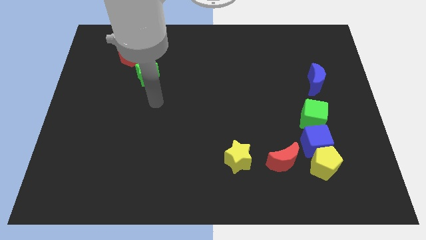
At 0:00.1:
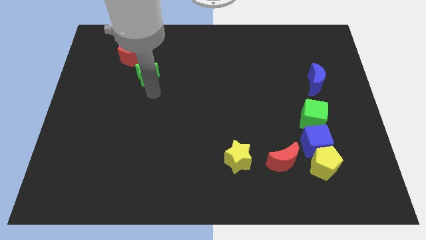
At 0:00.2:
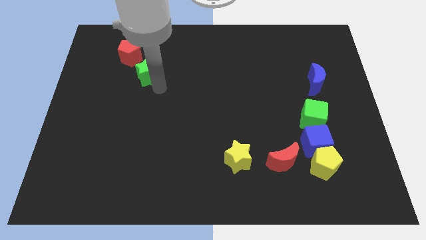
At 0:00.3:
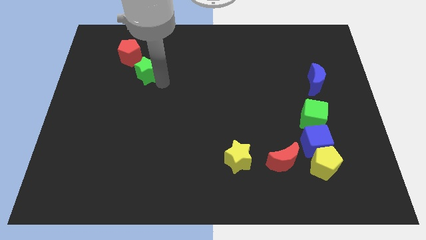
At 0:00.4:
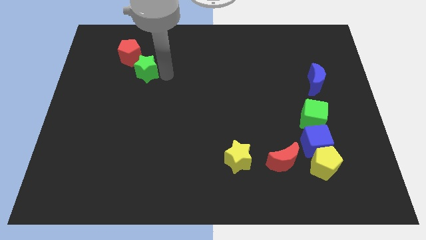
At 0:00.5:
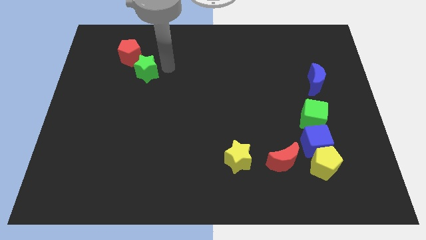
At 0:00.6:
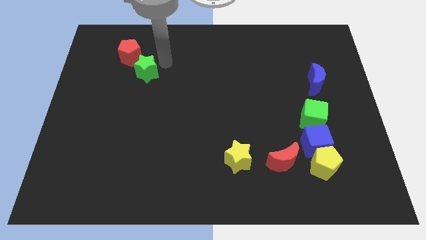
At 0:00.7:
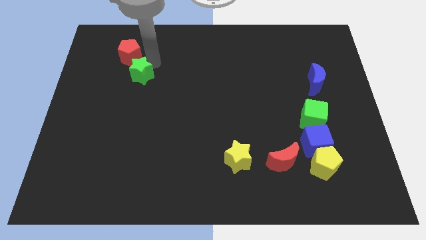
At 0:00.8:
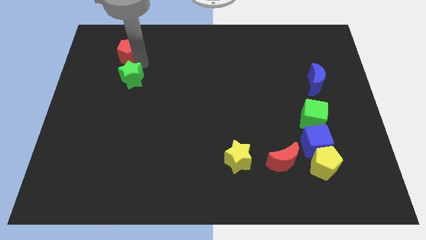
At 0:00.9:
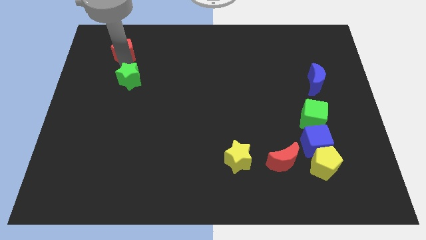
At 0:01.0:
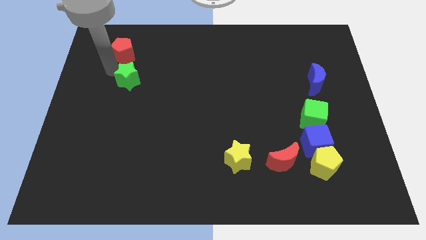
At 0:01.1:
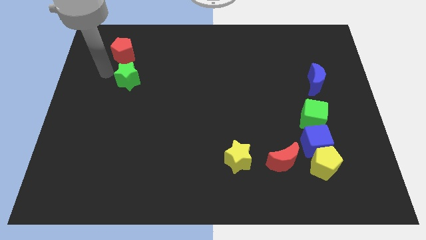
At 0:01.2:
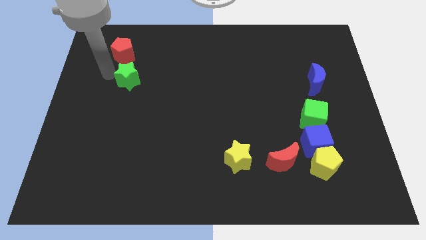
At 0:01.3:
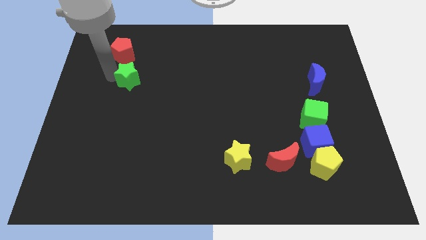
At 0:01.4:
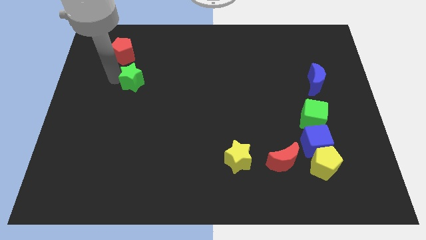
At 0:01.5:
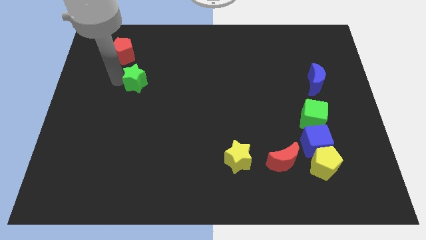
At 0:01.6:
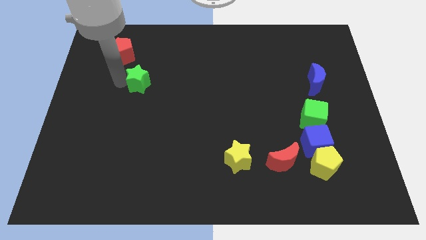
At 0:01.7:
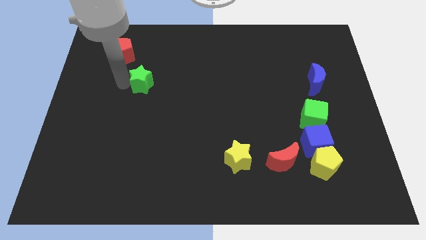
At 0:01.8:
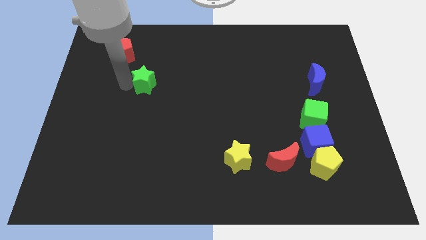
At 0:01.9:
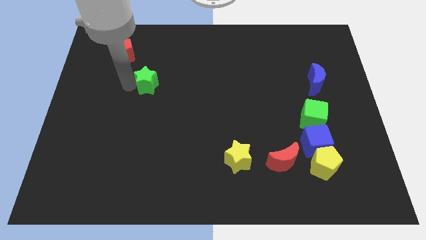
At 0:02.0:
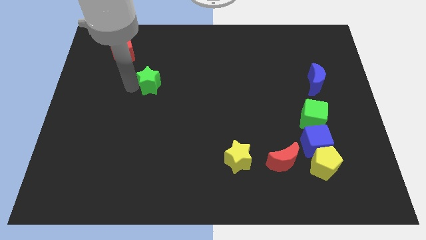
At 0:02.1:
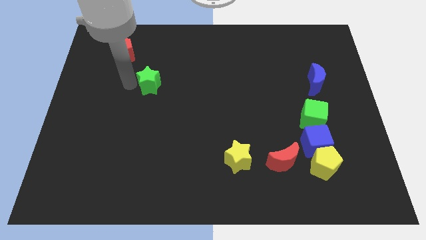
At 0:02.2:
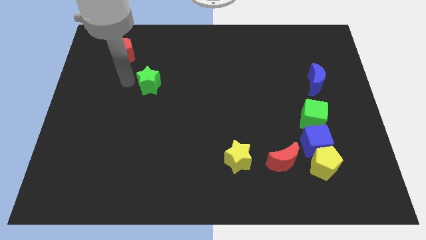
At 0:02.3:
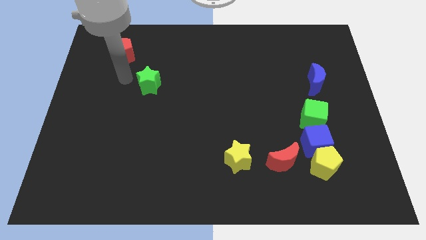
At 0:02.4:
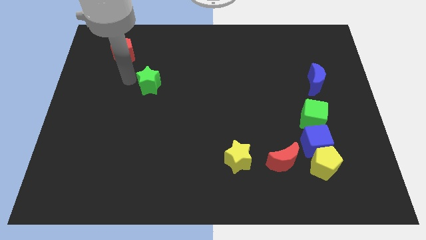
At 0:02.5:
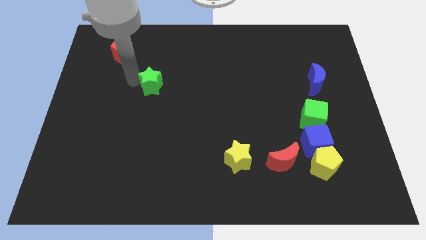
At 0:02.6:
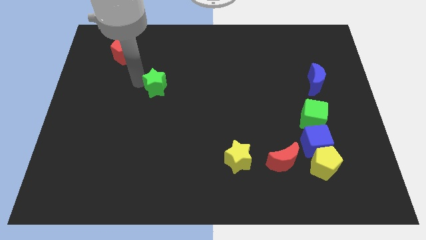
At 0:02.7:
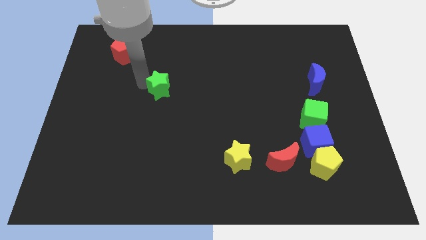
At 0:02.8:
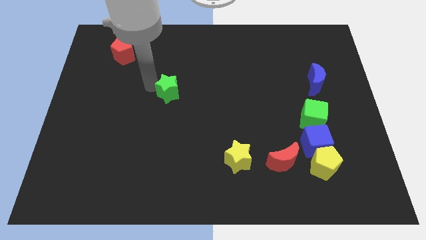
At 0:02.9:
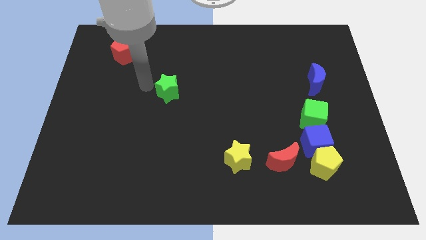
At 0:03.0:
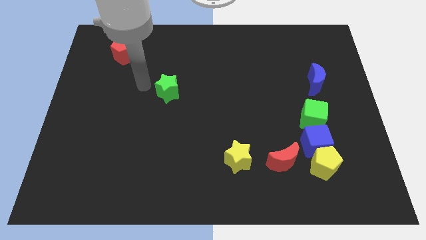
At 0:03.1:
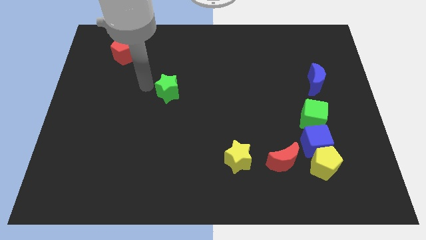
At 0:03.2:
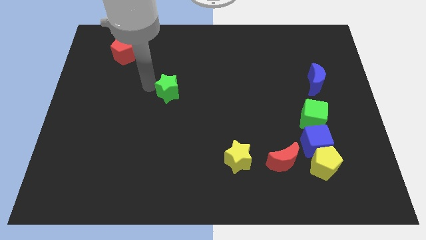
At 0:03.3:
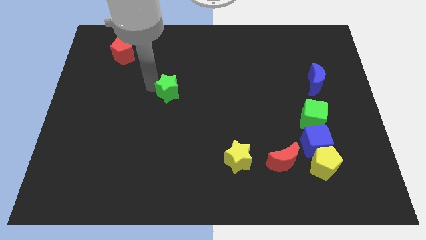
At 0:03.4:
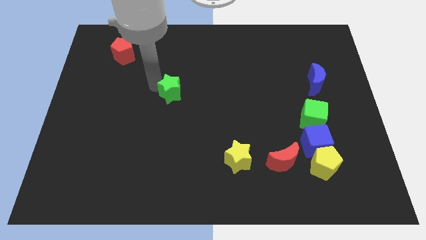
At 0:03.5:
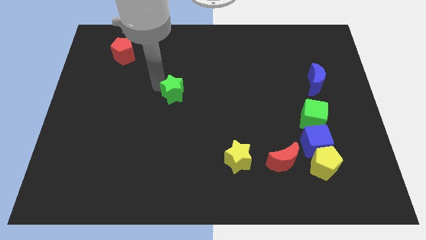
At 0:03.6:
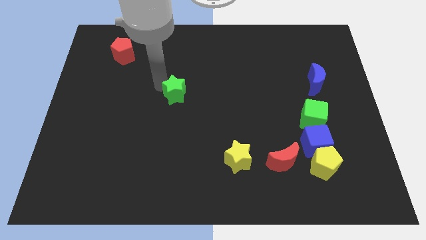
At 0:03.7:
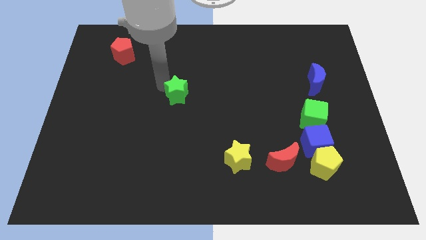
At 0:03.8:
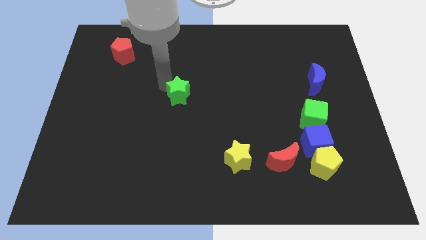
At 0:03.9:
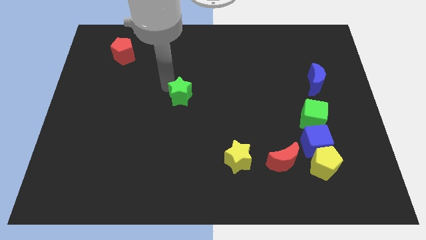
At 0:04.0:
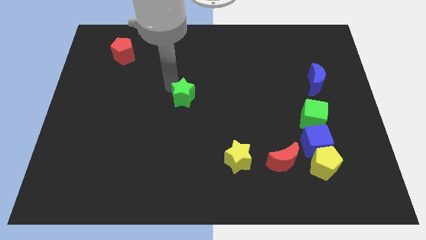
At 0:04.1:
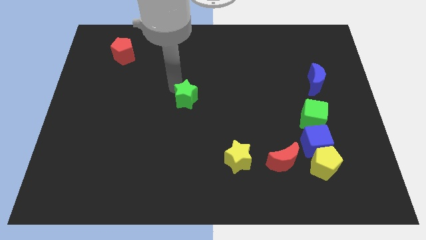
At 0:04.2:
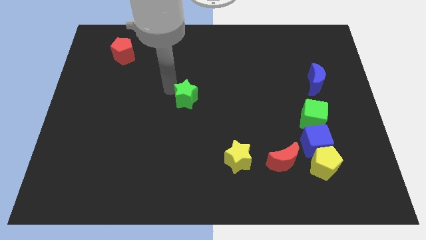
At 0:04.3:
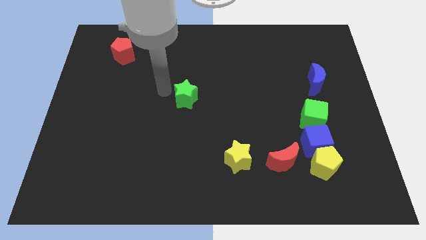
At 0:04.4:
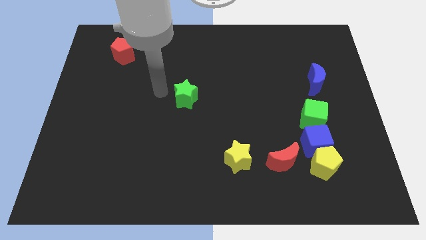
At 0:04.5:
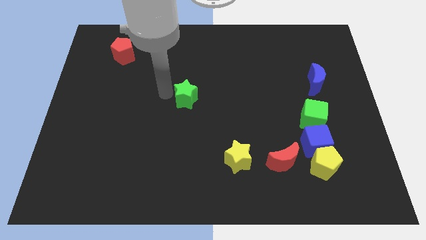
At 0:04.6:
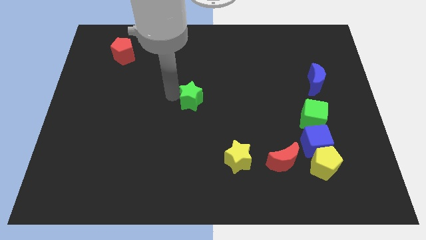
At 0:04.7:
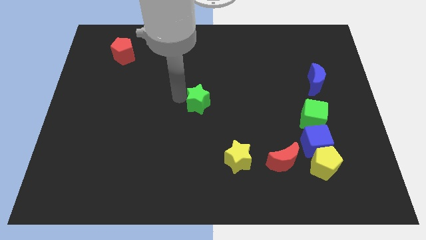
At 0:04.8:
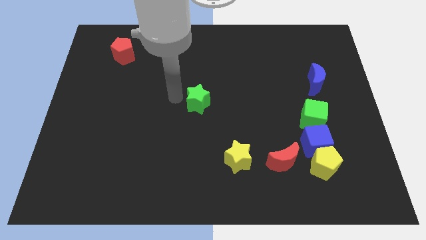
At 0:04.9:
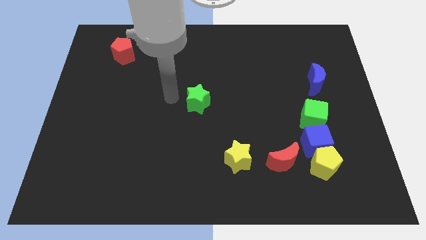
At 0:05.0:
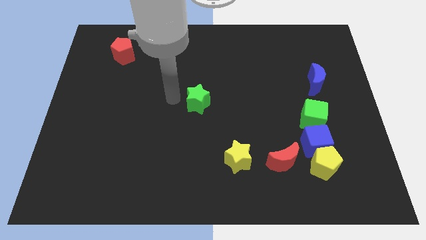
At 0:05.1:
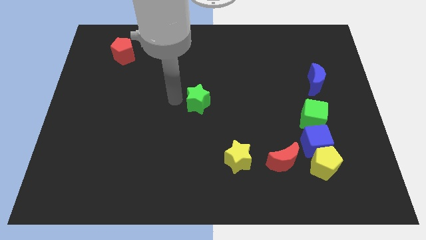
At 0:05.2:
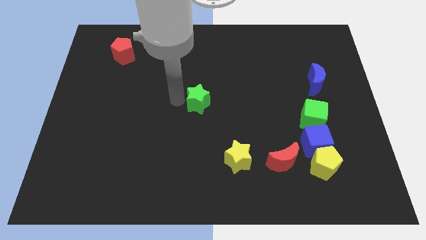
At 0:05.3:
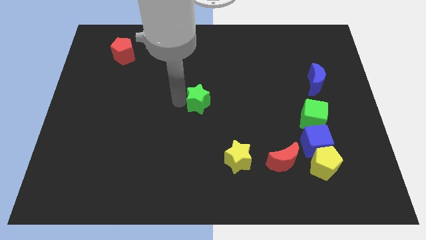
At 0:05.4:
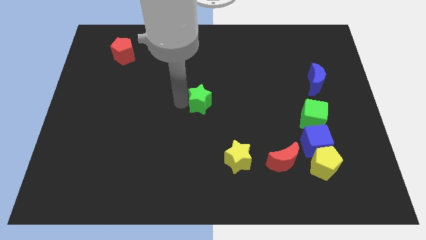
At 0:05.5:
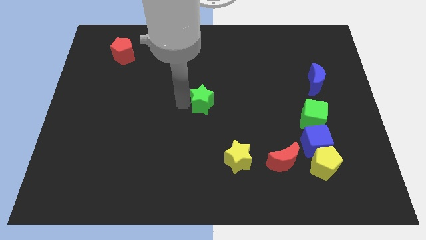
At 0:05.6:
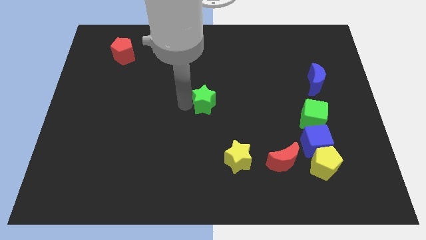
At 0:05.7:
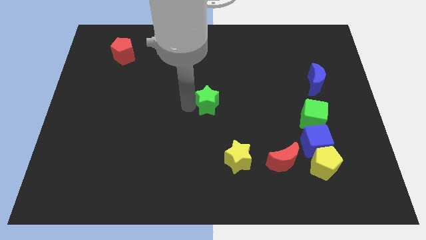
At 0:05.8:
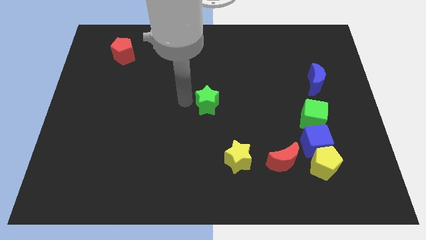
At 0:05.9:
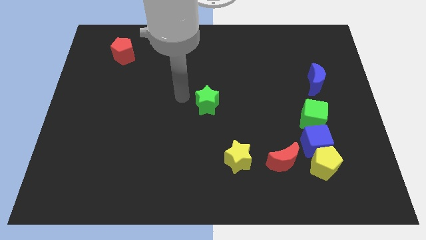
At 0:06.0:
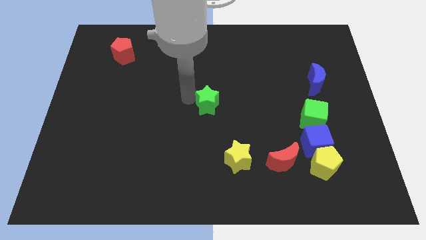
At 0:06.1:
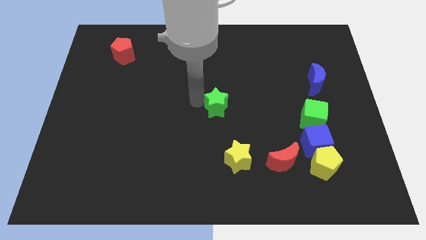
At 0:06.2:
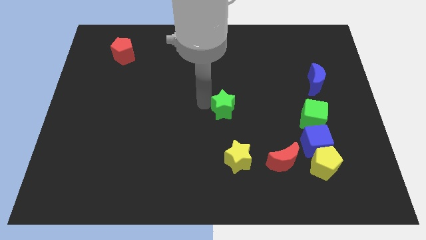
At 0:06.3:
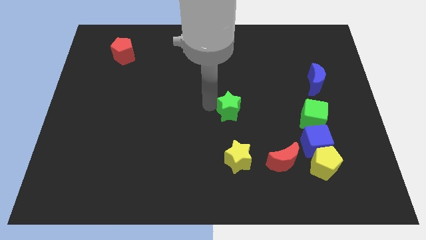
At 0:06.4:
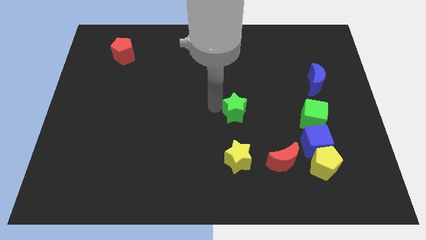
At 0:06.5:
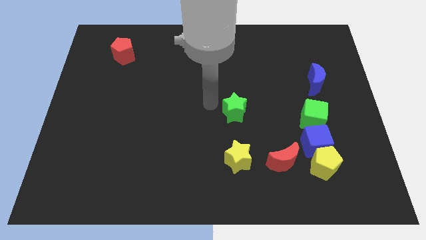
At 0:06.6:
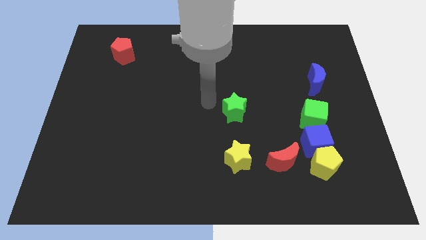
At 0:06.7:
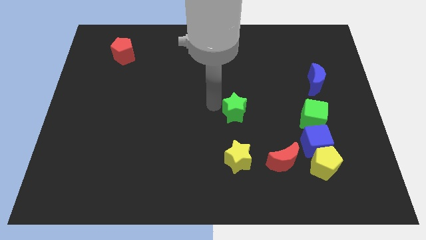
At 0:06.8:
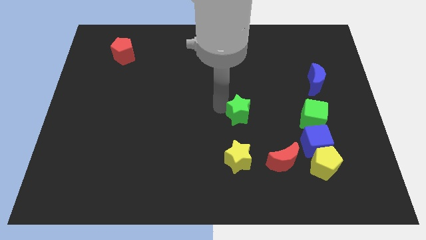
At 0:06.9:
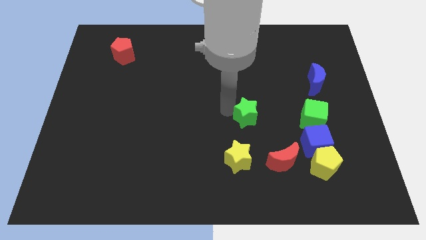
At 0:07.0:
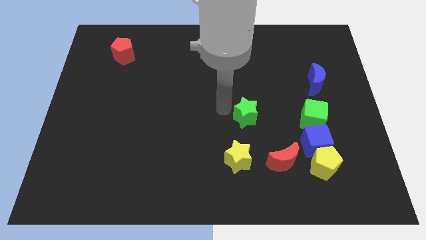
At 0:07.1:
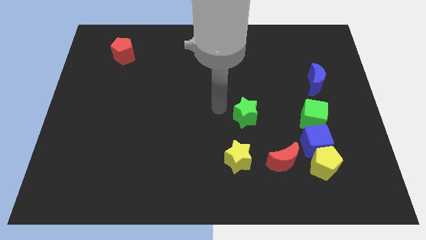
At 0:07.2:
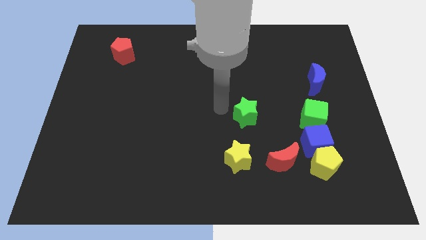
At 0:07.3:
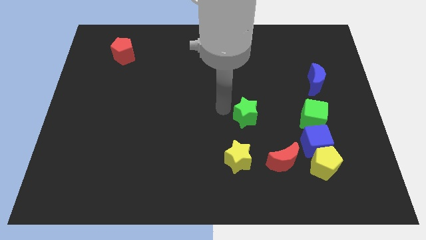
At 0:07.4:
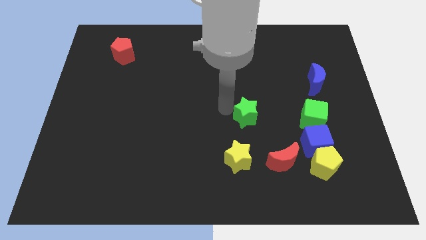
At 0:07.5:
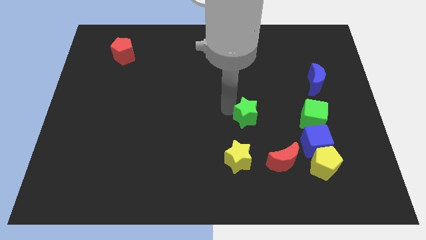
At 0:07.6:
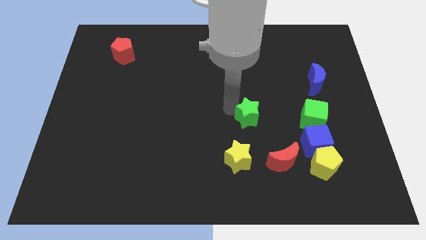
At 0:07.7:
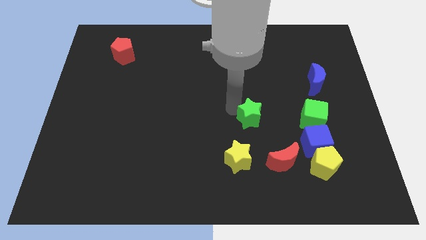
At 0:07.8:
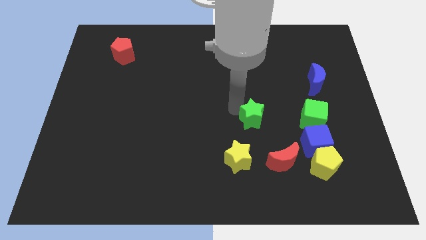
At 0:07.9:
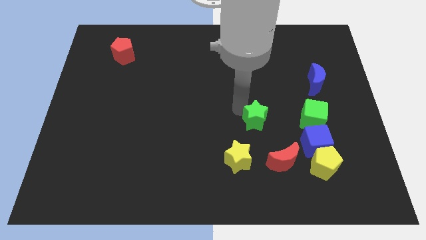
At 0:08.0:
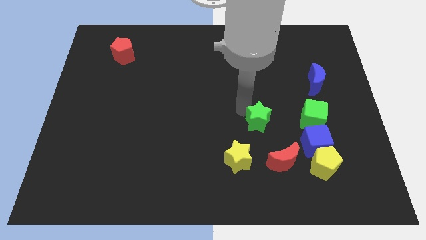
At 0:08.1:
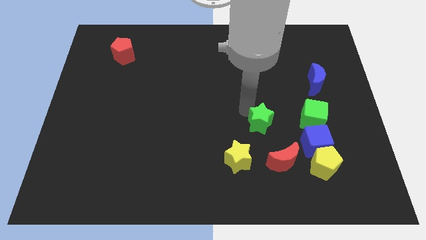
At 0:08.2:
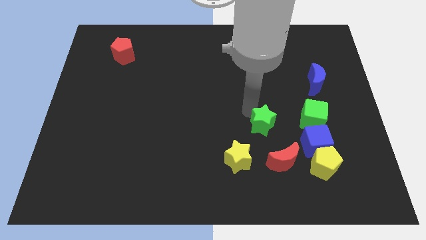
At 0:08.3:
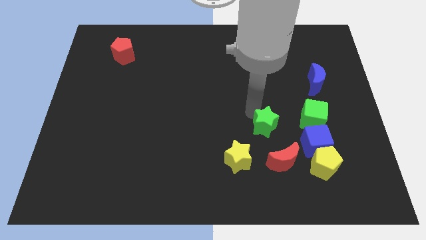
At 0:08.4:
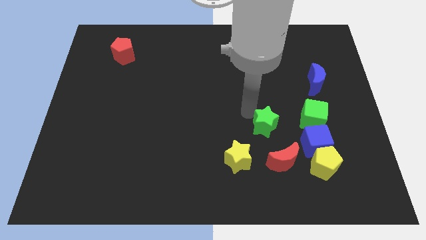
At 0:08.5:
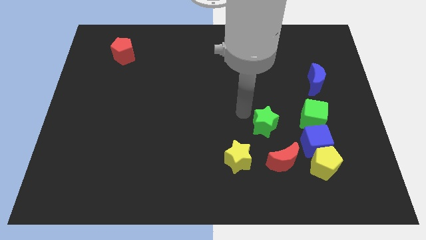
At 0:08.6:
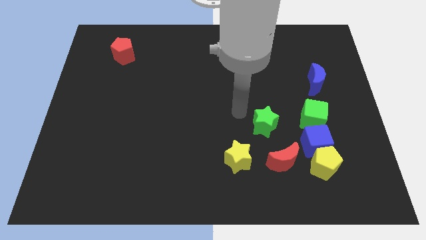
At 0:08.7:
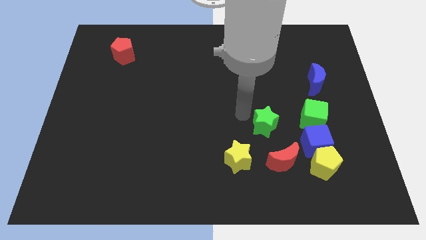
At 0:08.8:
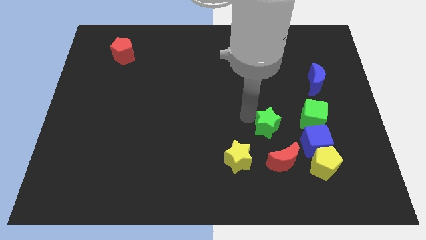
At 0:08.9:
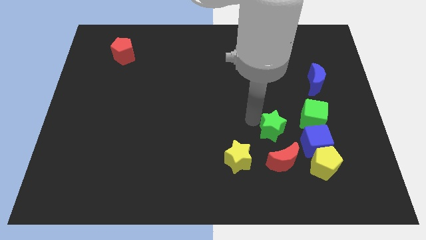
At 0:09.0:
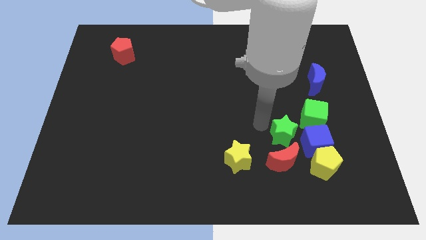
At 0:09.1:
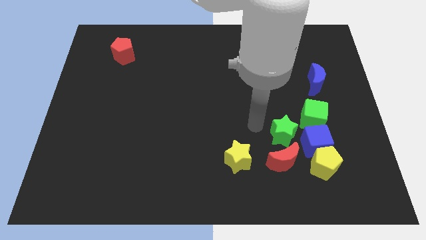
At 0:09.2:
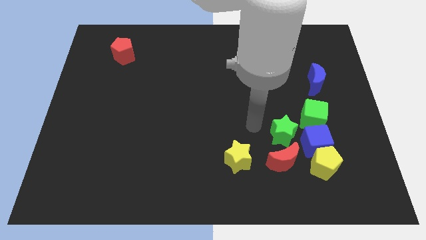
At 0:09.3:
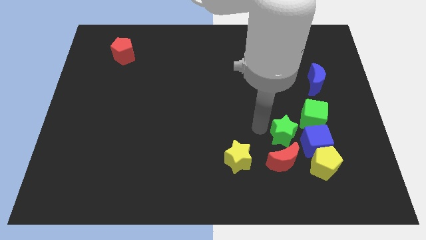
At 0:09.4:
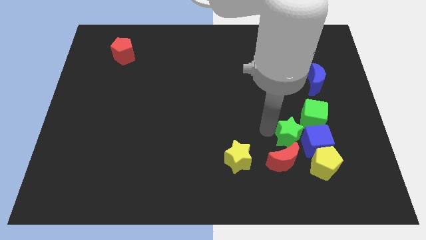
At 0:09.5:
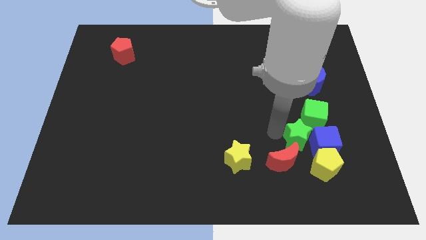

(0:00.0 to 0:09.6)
slide the green star towards the blue cube
